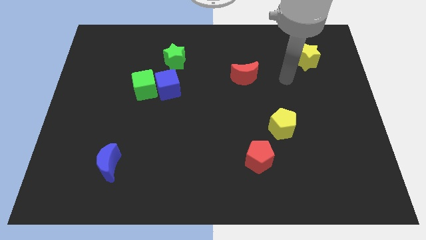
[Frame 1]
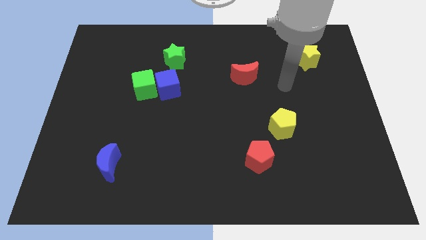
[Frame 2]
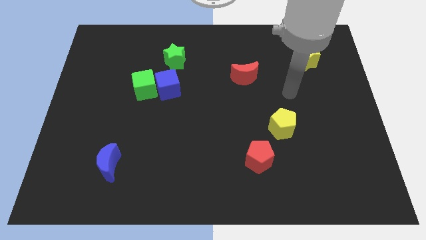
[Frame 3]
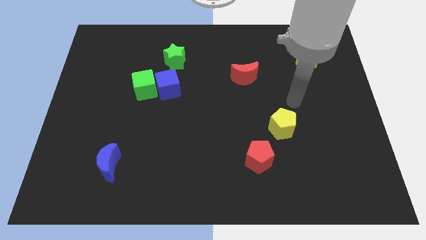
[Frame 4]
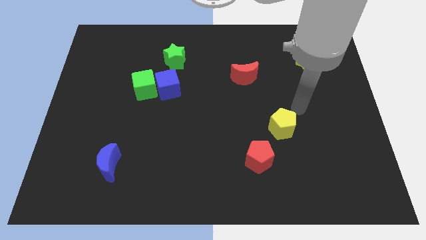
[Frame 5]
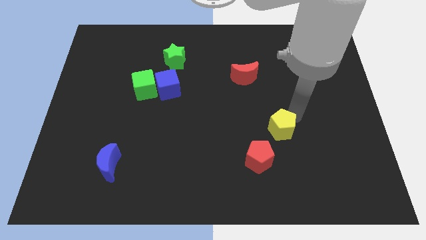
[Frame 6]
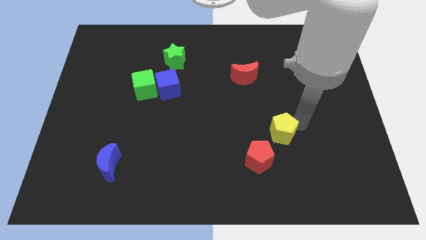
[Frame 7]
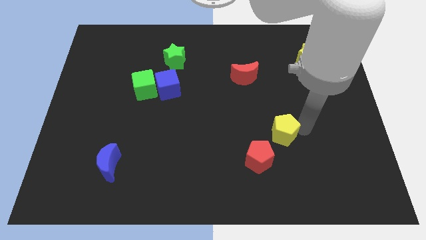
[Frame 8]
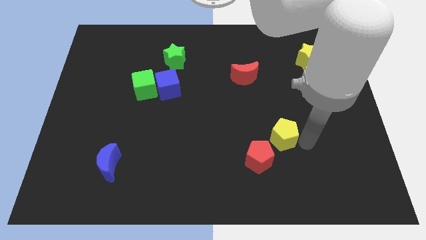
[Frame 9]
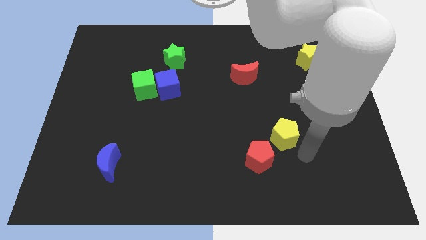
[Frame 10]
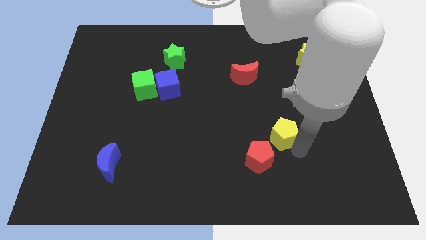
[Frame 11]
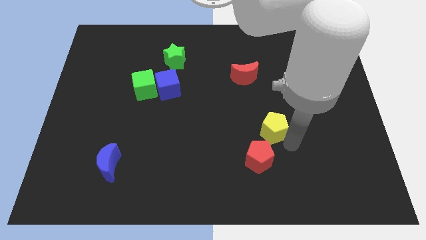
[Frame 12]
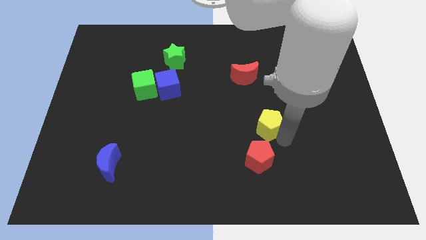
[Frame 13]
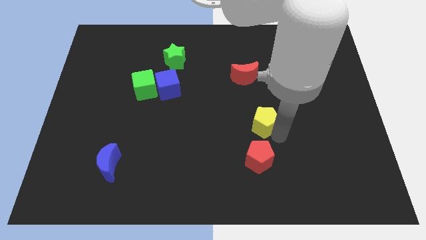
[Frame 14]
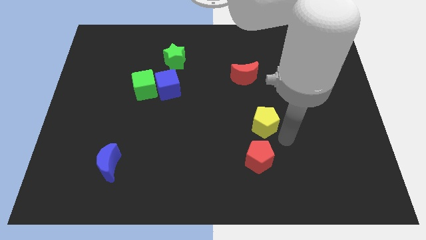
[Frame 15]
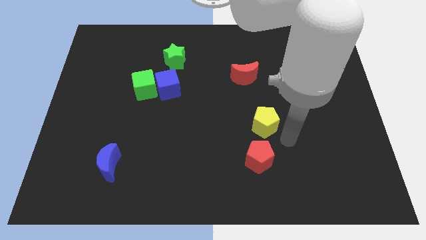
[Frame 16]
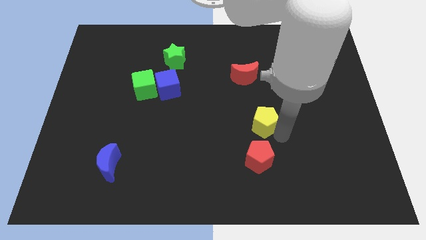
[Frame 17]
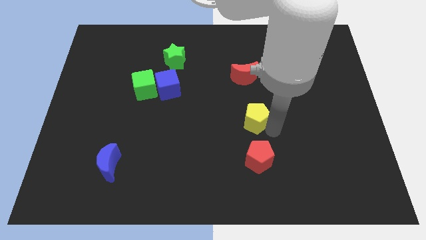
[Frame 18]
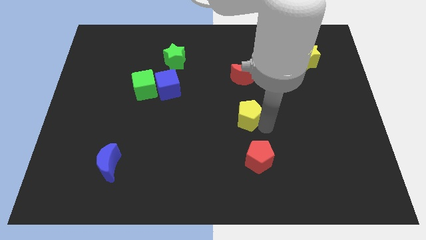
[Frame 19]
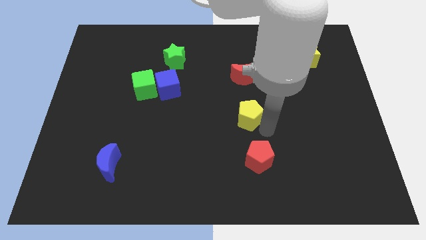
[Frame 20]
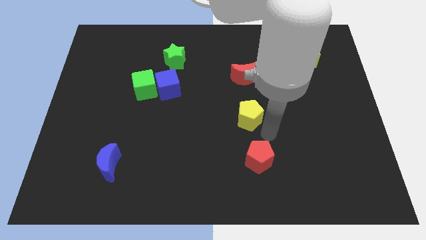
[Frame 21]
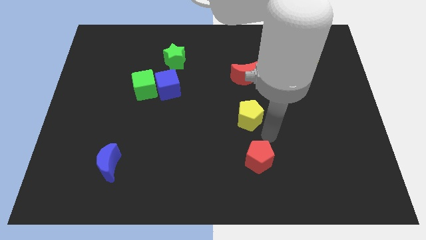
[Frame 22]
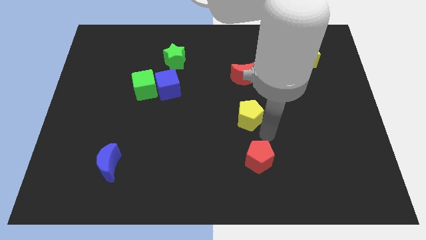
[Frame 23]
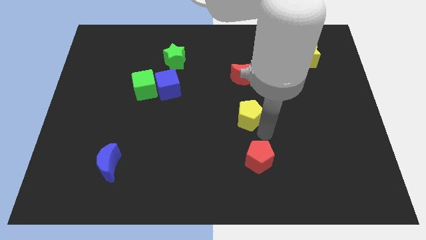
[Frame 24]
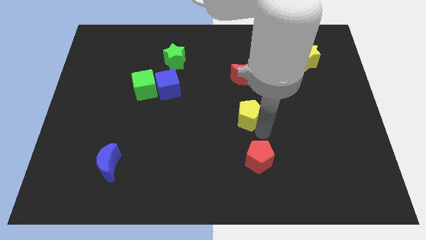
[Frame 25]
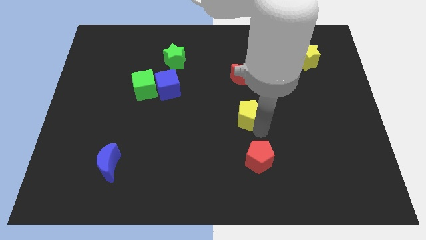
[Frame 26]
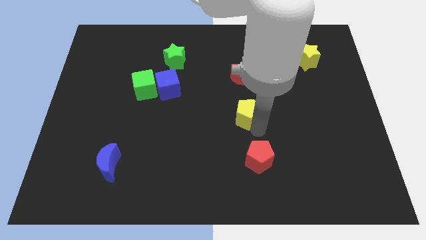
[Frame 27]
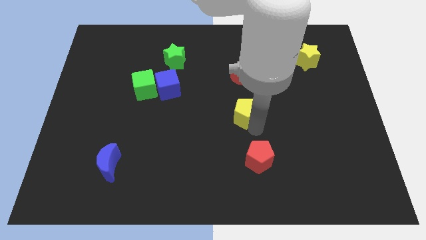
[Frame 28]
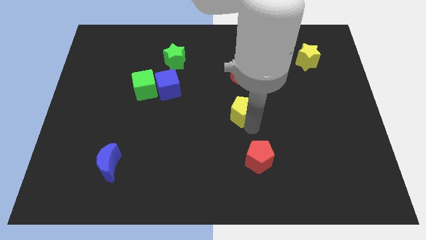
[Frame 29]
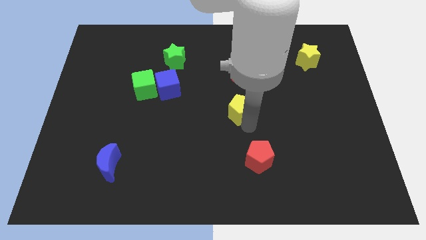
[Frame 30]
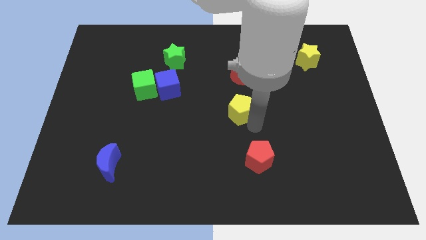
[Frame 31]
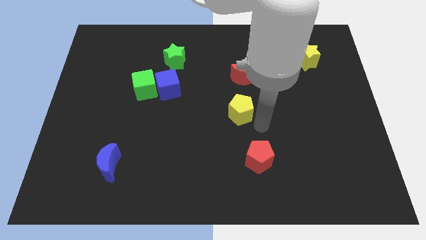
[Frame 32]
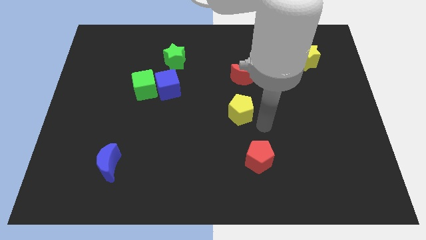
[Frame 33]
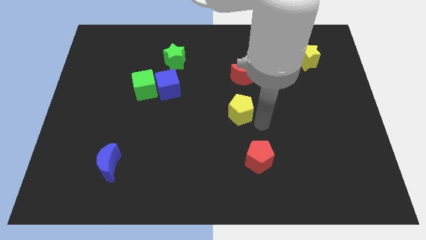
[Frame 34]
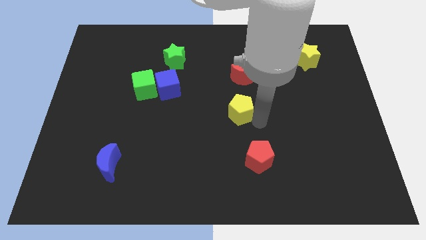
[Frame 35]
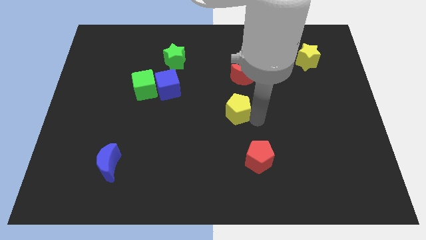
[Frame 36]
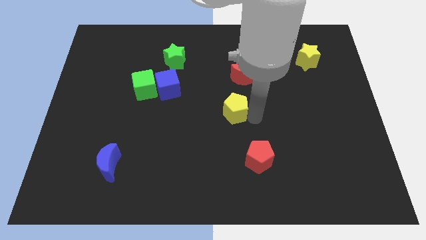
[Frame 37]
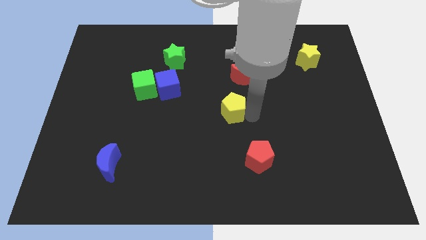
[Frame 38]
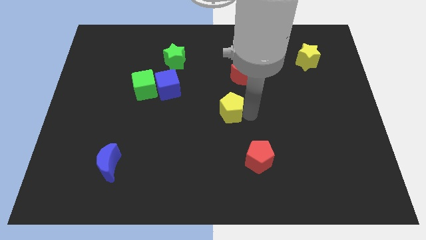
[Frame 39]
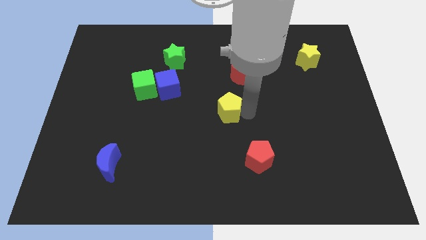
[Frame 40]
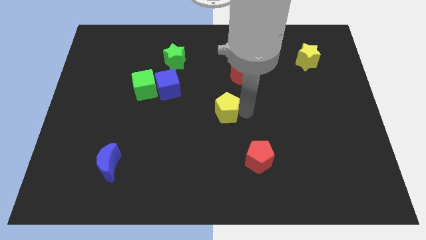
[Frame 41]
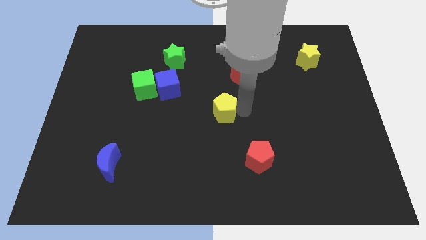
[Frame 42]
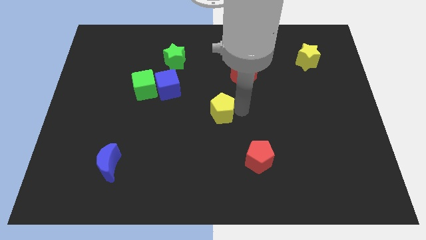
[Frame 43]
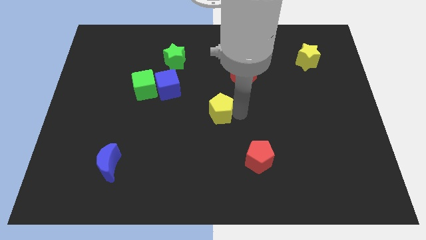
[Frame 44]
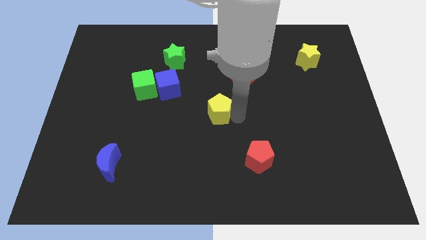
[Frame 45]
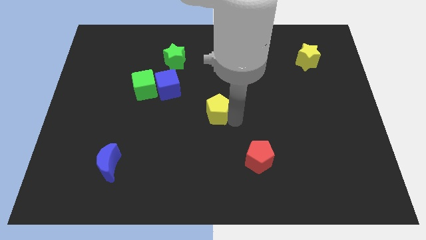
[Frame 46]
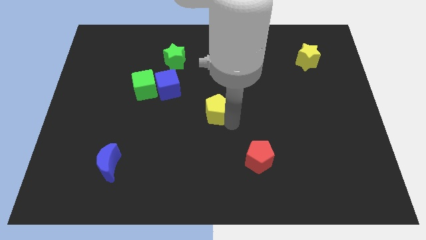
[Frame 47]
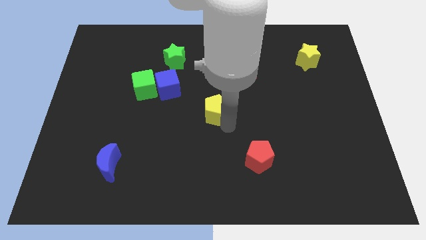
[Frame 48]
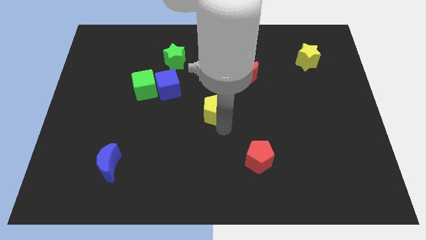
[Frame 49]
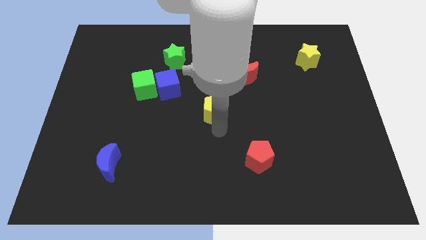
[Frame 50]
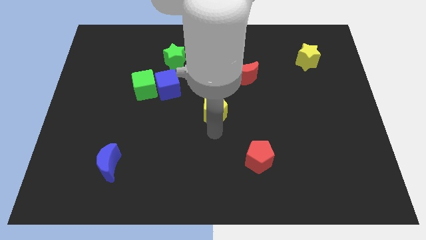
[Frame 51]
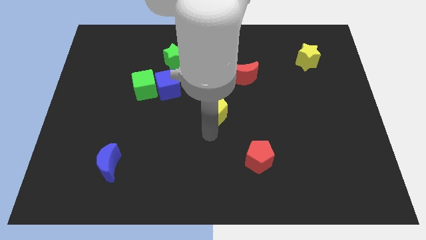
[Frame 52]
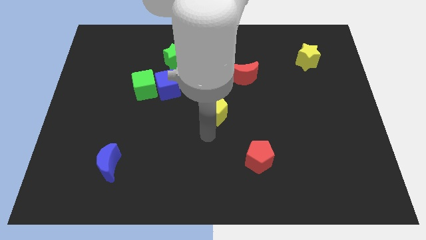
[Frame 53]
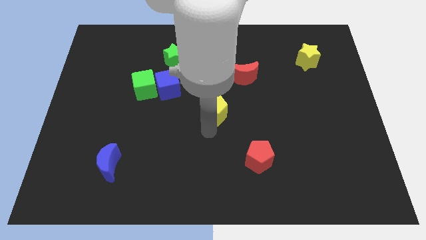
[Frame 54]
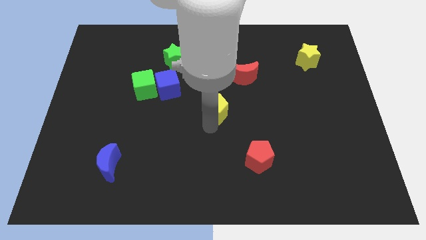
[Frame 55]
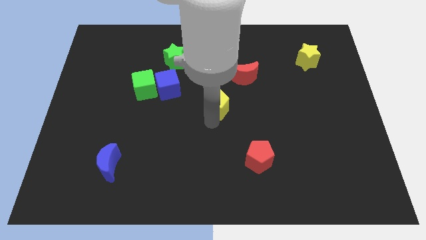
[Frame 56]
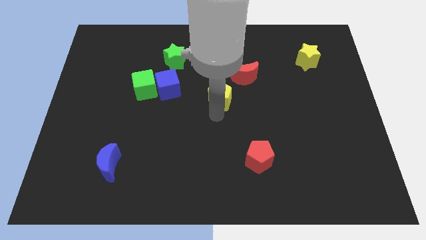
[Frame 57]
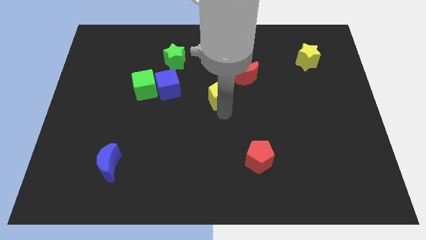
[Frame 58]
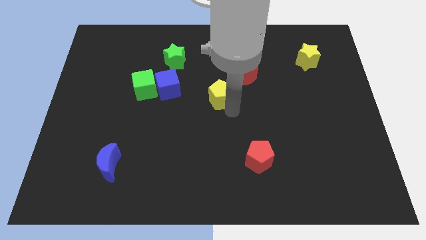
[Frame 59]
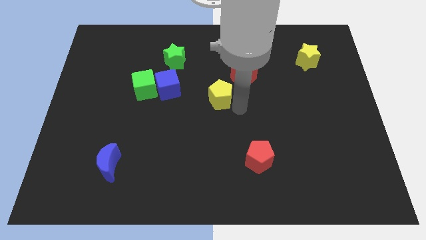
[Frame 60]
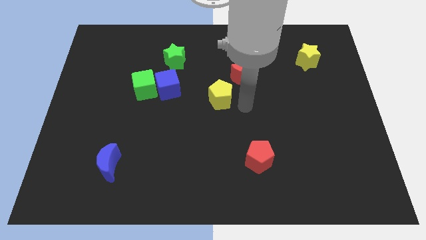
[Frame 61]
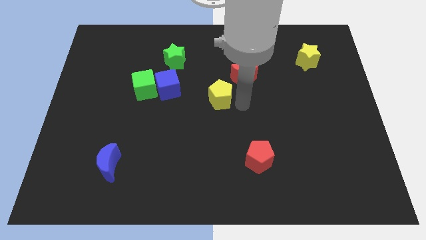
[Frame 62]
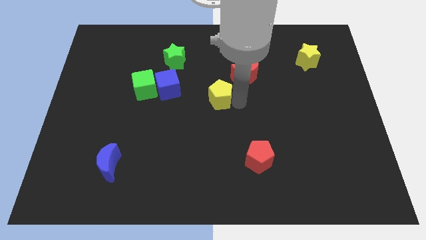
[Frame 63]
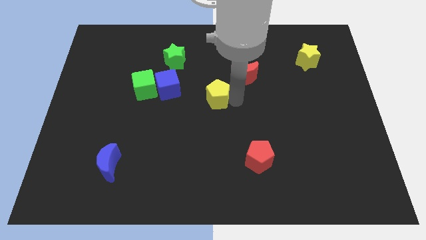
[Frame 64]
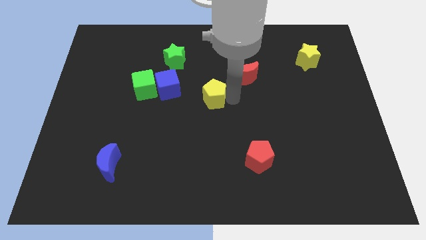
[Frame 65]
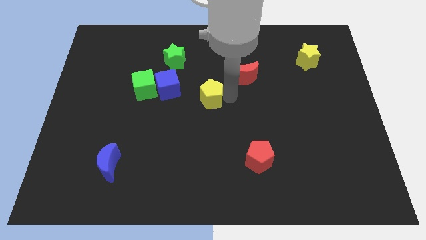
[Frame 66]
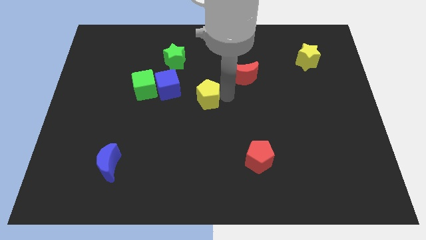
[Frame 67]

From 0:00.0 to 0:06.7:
move the yellow pentagon to the right of the green cube
